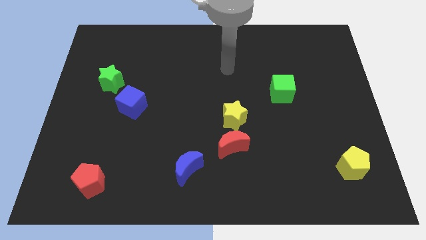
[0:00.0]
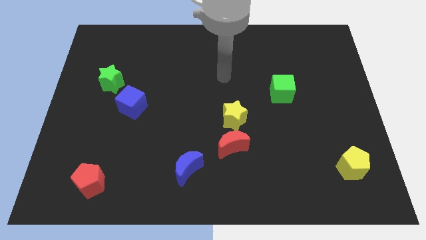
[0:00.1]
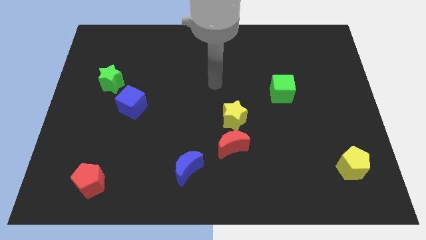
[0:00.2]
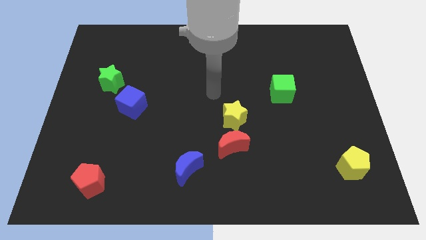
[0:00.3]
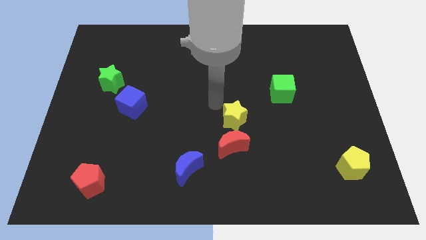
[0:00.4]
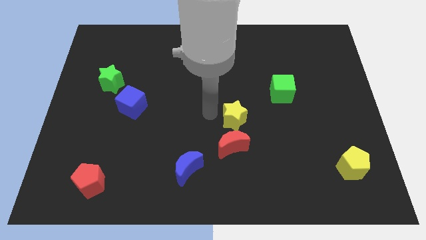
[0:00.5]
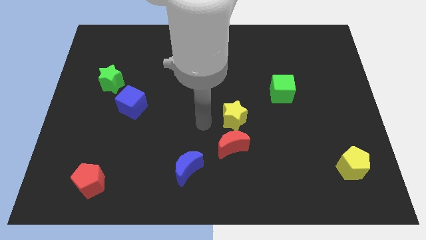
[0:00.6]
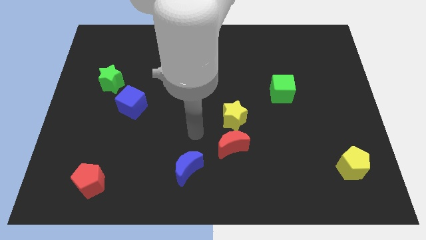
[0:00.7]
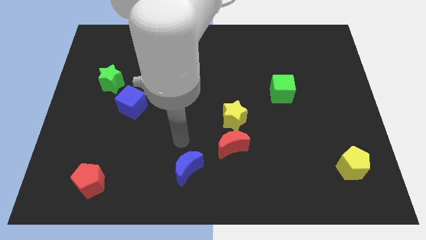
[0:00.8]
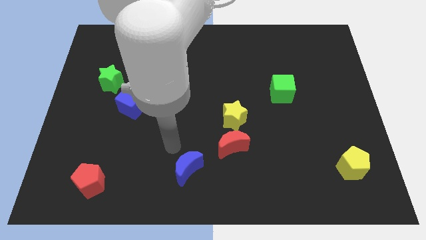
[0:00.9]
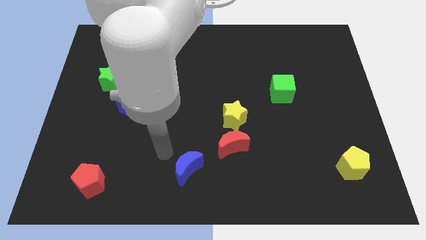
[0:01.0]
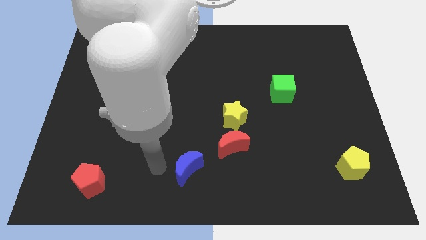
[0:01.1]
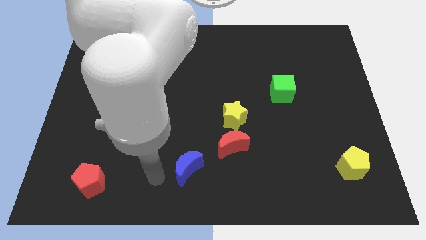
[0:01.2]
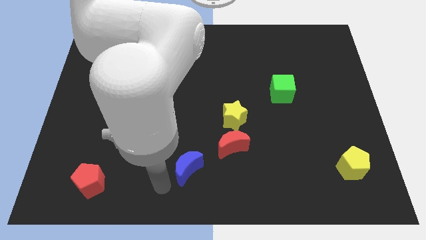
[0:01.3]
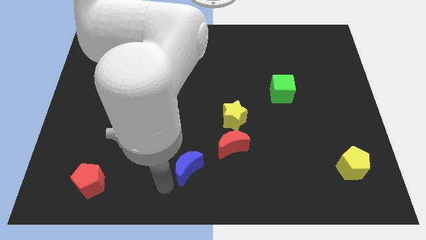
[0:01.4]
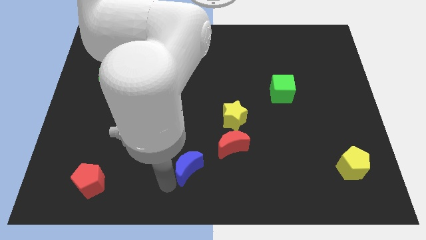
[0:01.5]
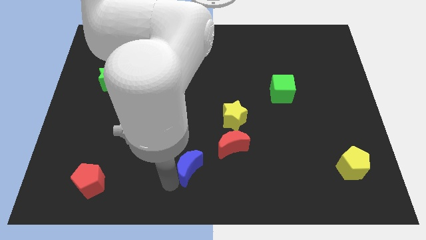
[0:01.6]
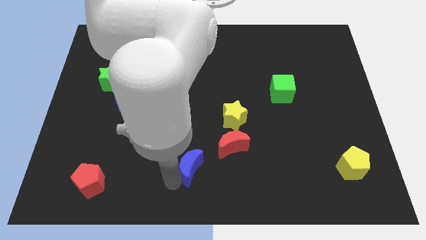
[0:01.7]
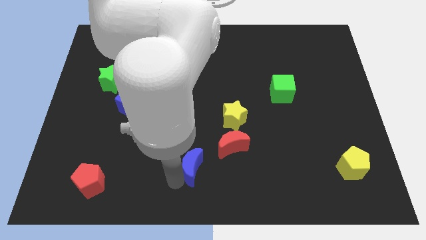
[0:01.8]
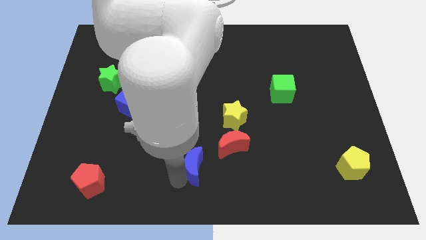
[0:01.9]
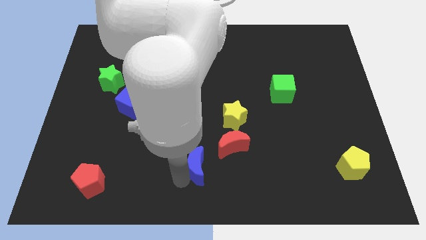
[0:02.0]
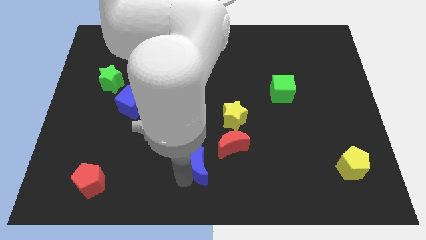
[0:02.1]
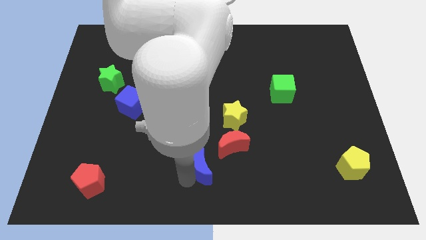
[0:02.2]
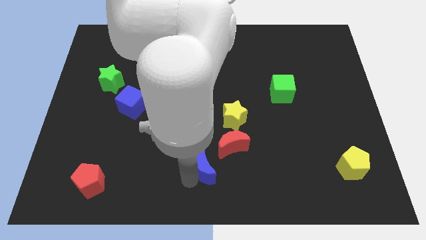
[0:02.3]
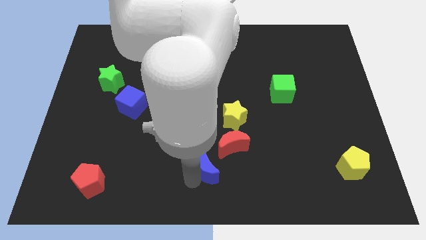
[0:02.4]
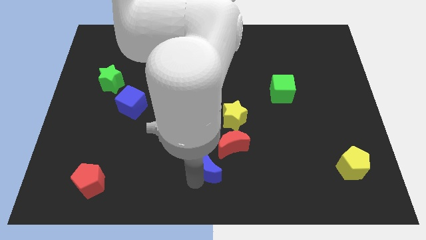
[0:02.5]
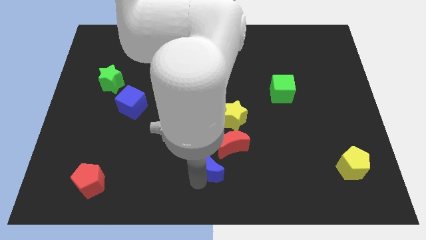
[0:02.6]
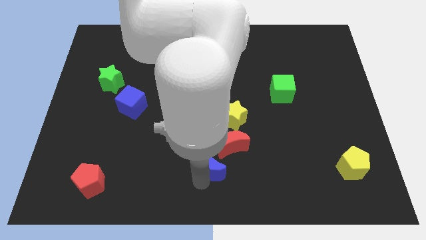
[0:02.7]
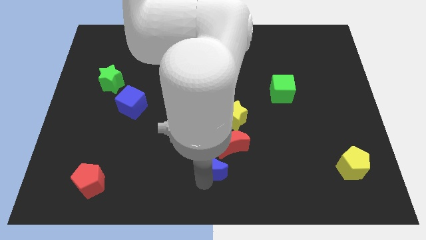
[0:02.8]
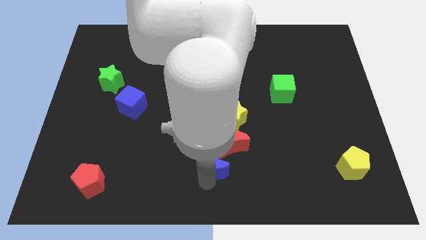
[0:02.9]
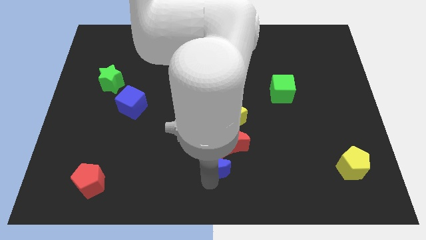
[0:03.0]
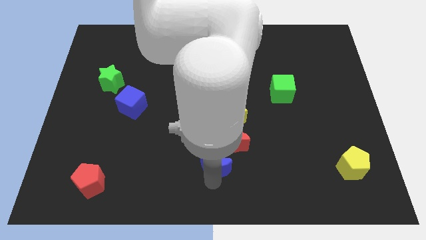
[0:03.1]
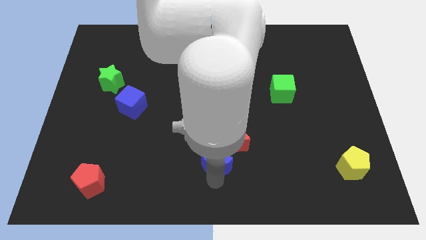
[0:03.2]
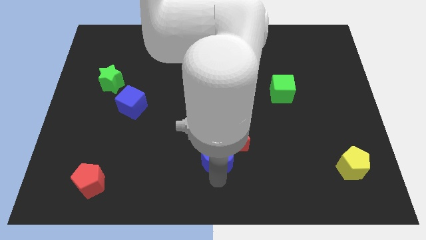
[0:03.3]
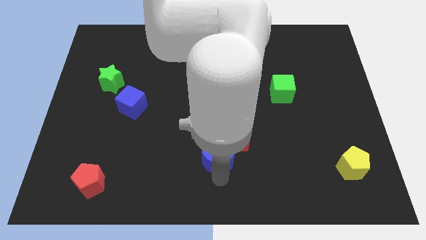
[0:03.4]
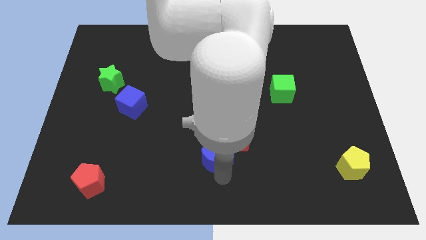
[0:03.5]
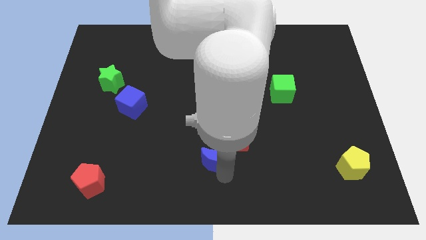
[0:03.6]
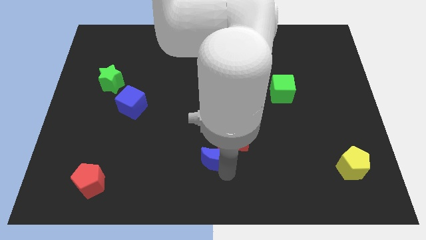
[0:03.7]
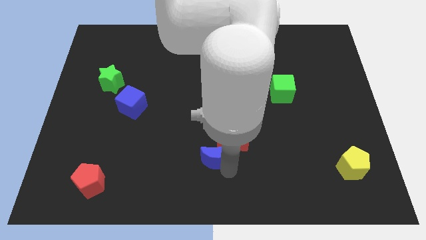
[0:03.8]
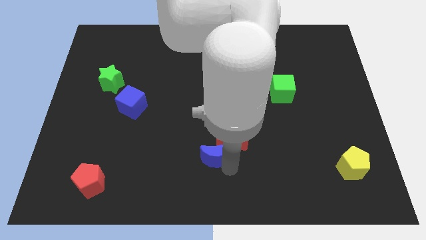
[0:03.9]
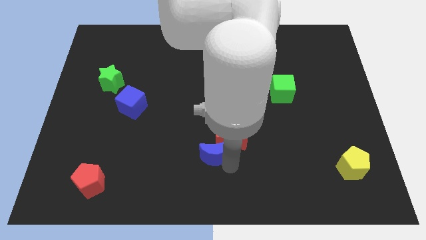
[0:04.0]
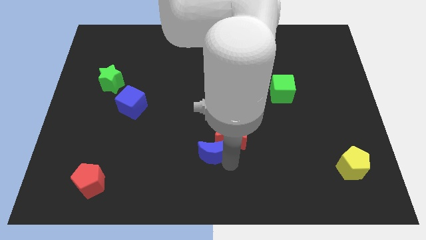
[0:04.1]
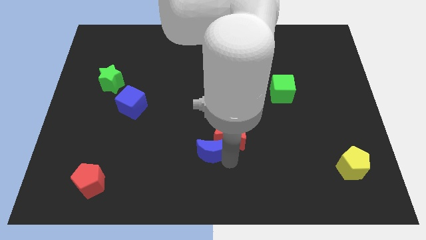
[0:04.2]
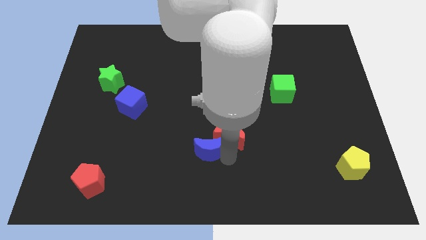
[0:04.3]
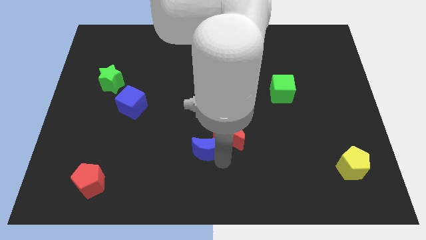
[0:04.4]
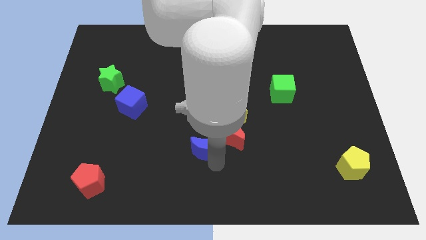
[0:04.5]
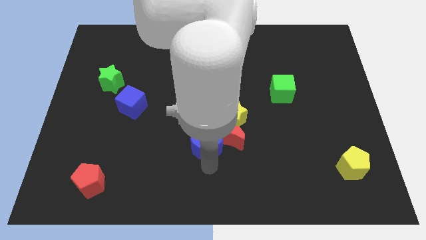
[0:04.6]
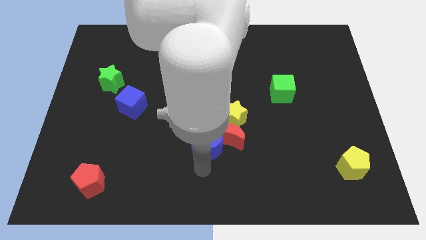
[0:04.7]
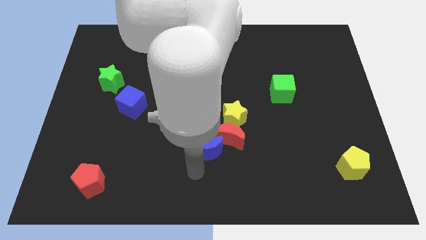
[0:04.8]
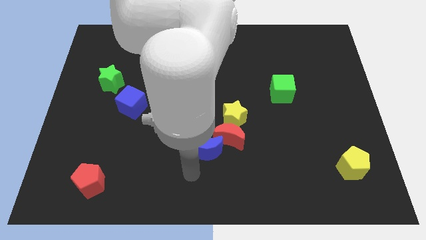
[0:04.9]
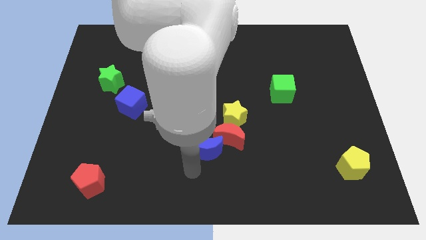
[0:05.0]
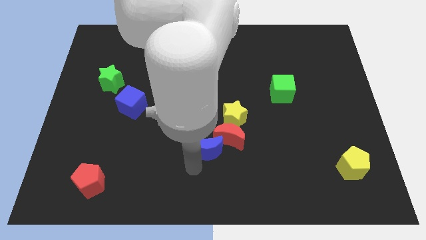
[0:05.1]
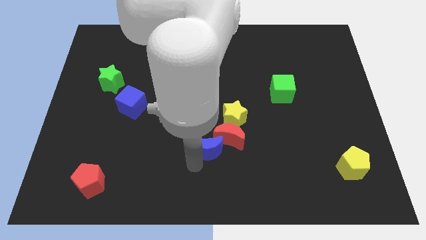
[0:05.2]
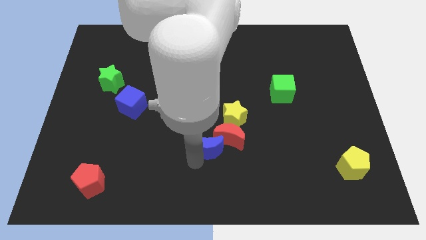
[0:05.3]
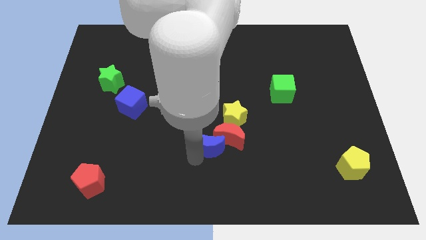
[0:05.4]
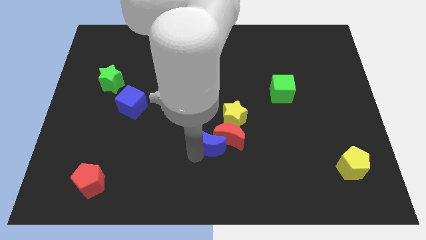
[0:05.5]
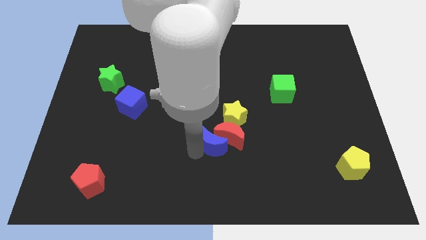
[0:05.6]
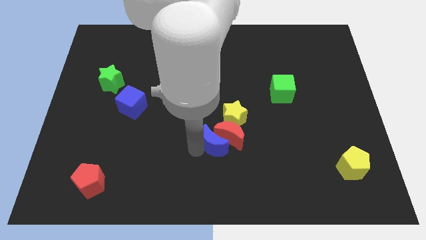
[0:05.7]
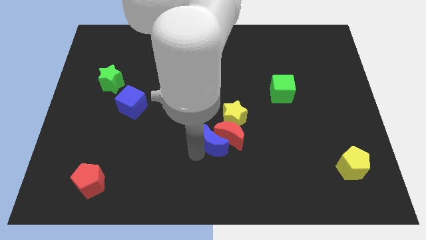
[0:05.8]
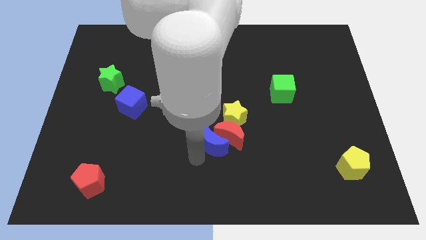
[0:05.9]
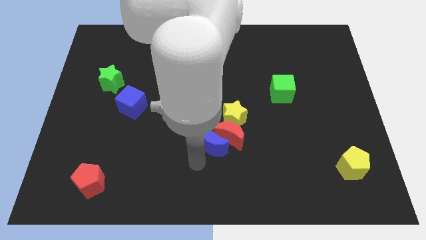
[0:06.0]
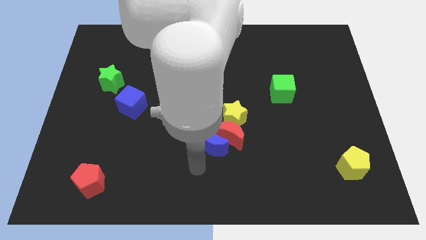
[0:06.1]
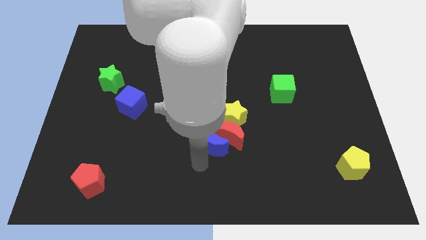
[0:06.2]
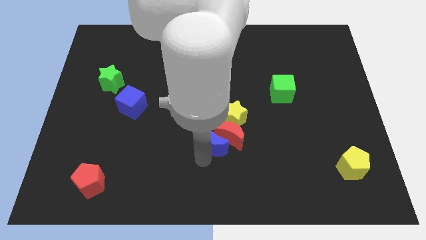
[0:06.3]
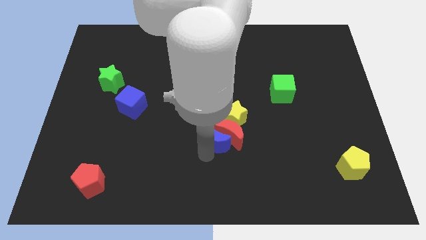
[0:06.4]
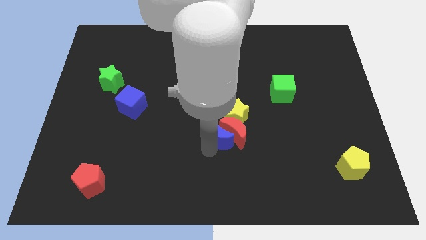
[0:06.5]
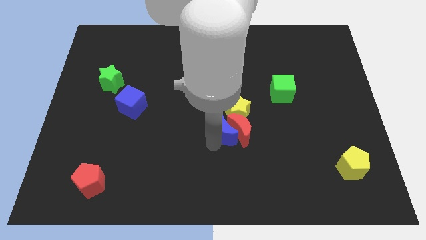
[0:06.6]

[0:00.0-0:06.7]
put the blue moon to the yellow star
